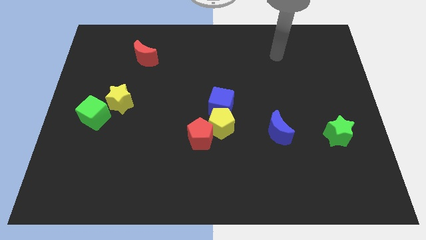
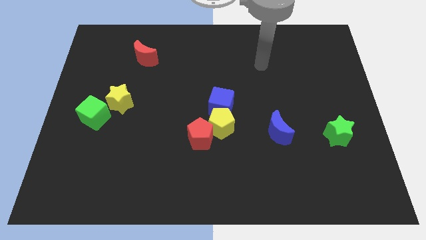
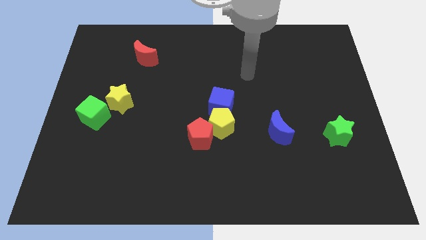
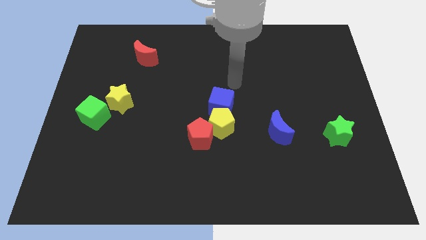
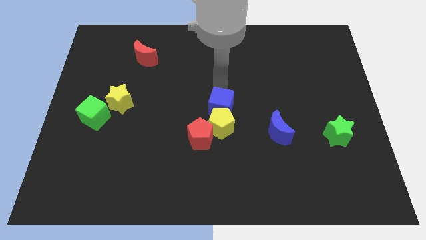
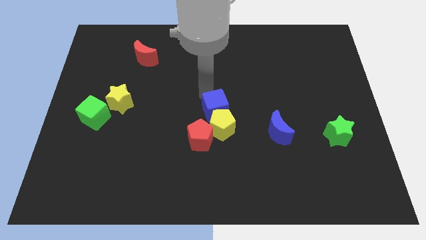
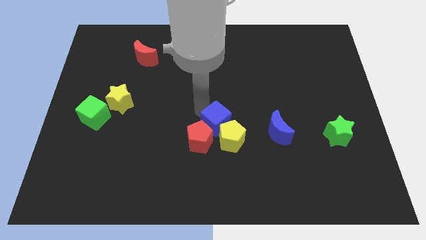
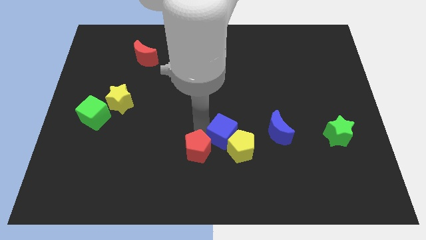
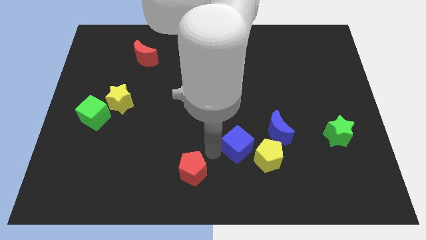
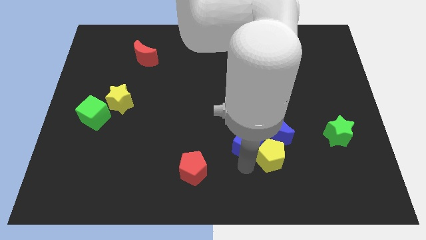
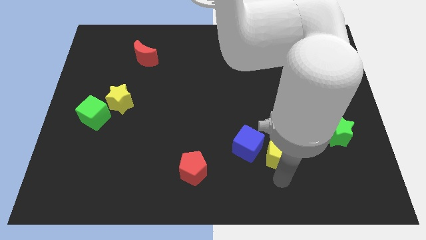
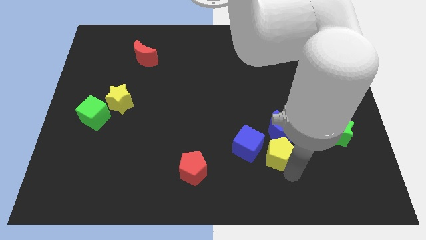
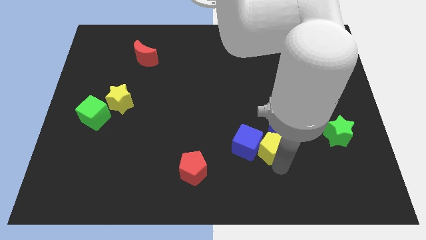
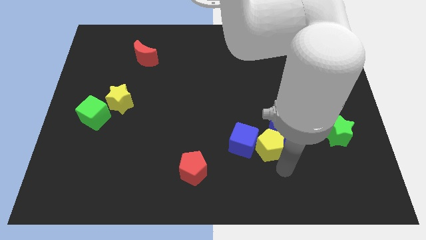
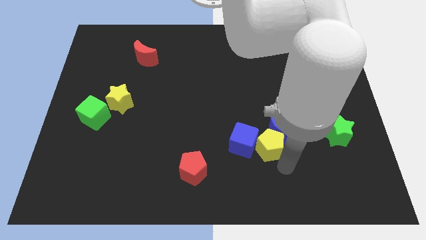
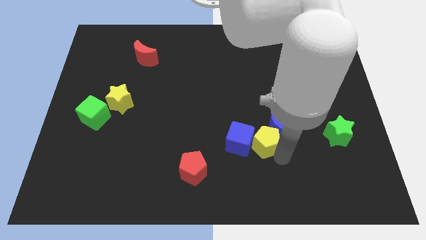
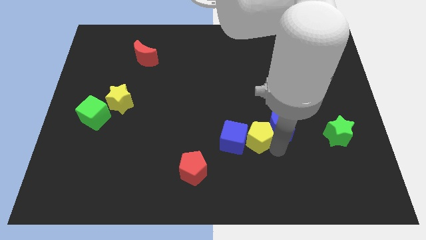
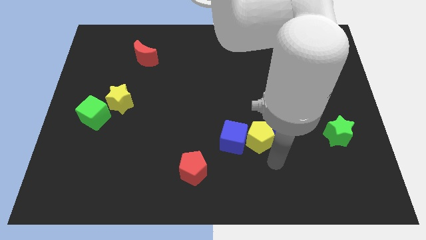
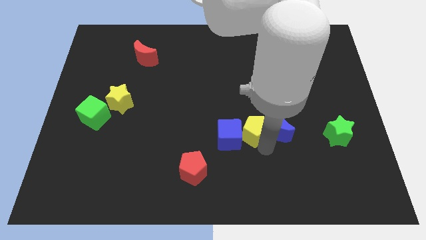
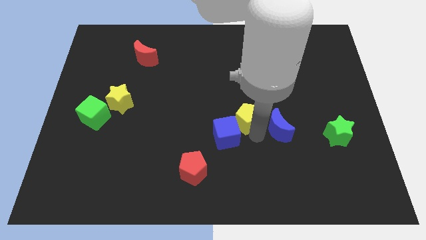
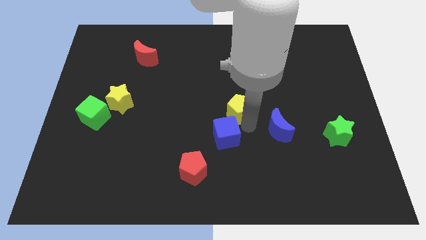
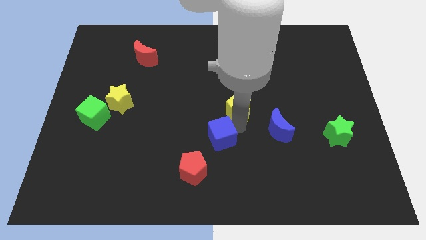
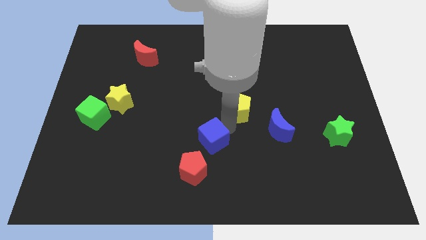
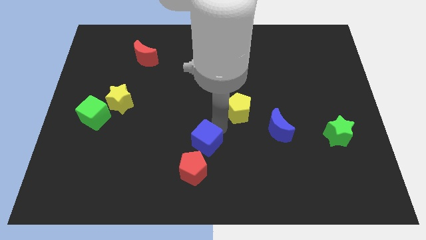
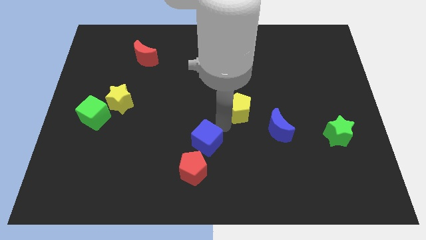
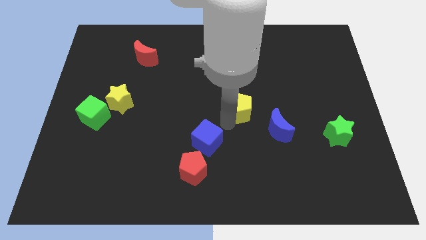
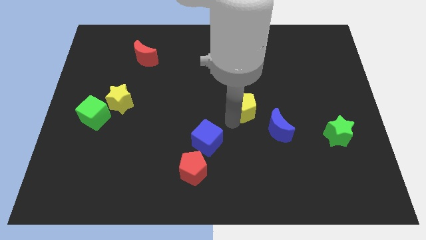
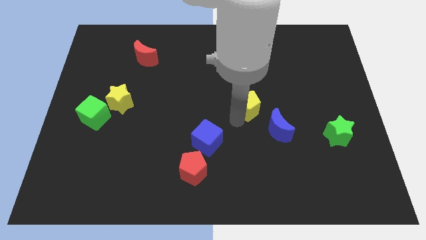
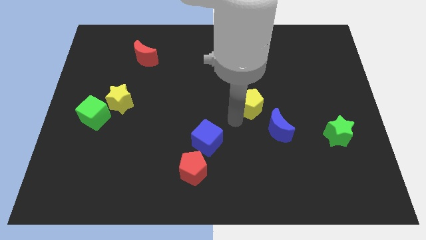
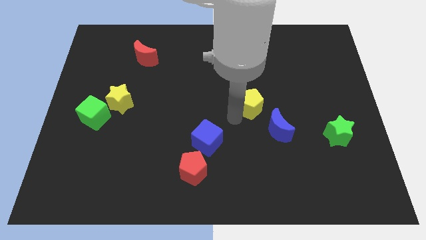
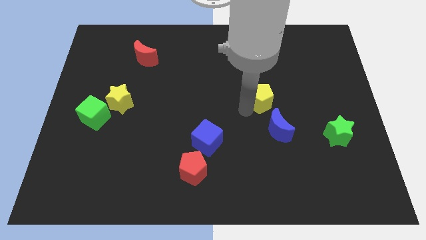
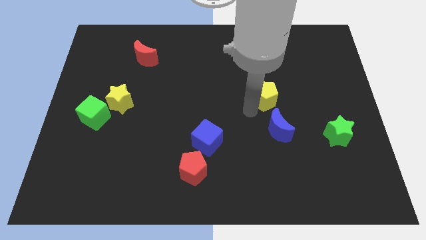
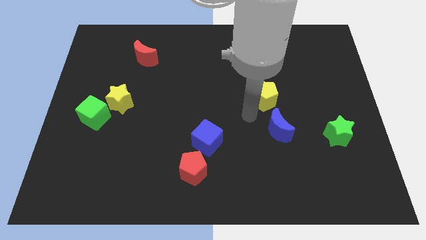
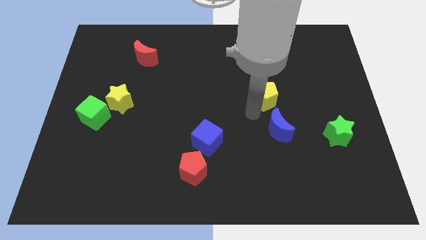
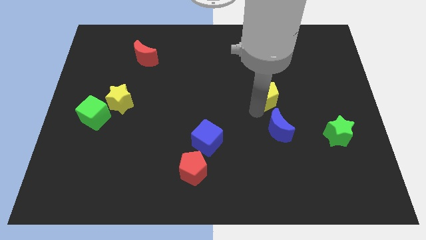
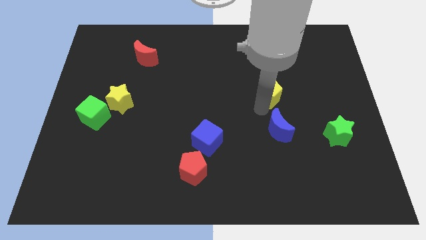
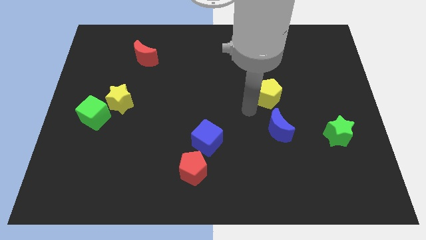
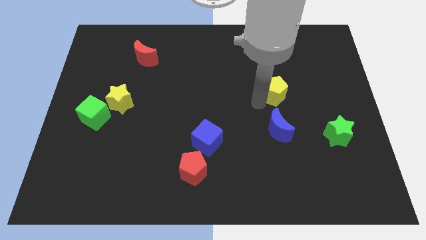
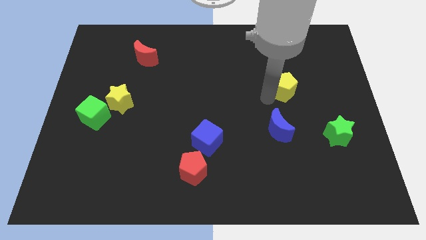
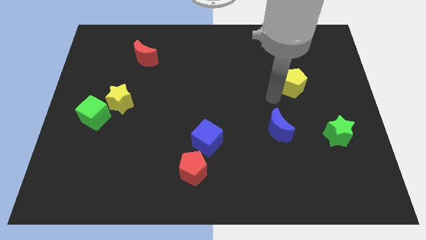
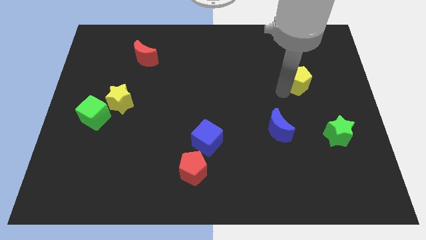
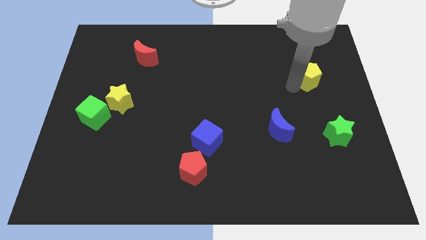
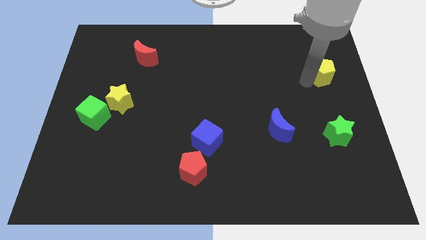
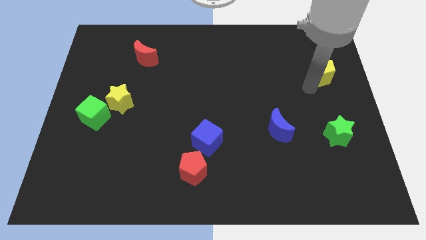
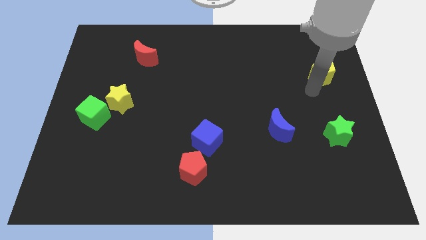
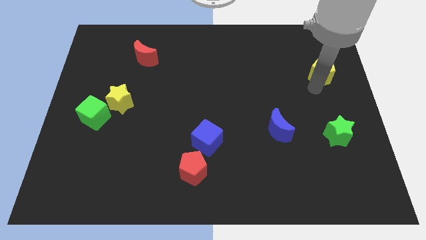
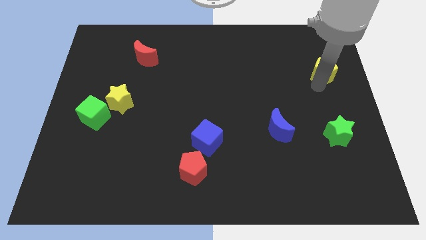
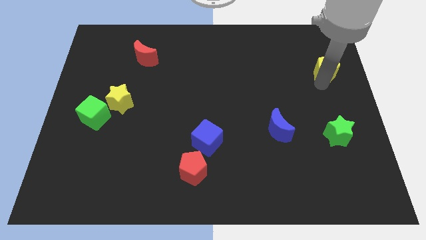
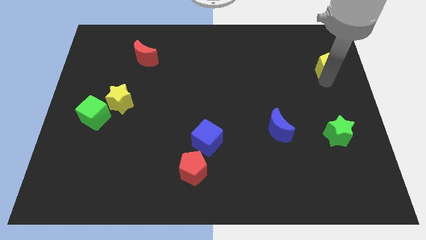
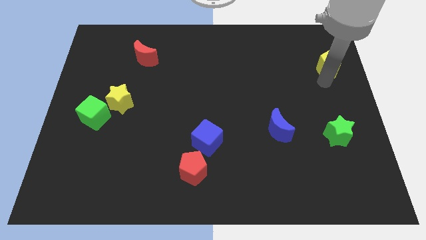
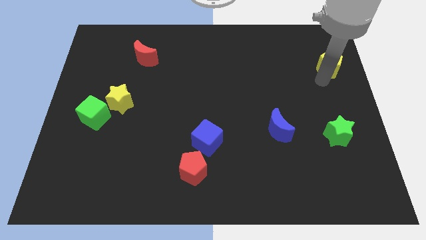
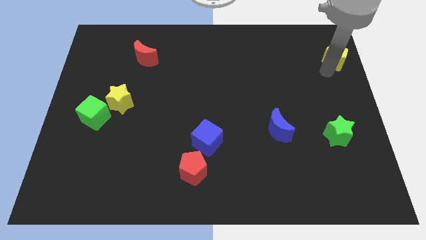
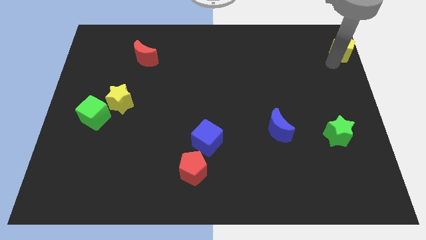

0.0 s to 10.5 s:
push the yellow pentagon to the upper right corner
